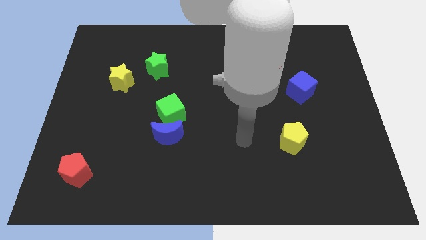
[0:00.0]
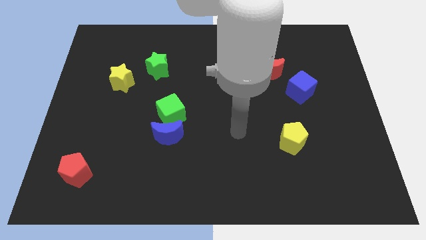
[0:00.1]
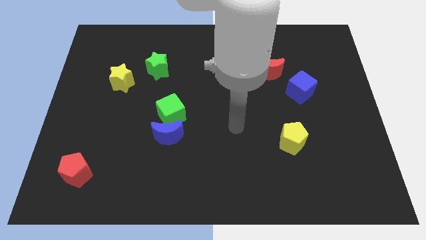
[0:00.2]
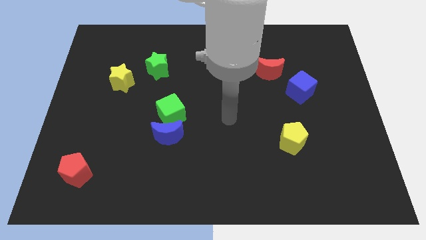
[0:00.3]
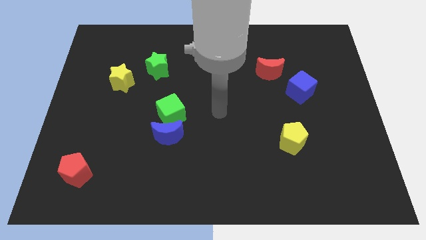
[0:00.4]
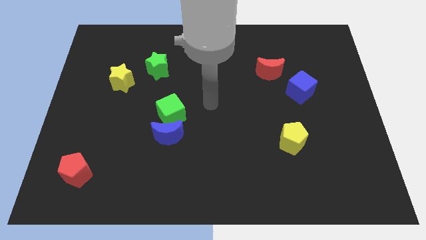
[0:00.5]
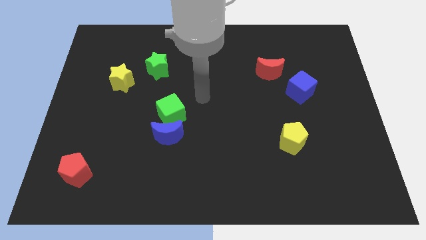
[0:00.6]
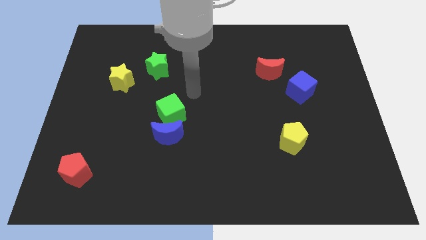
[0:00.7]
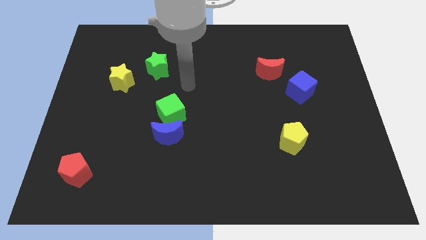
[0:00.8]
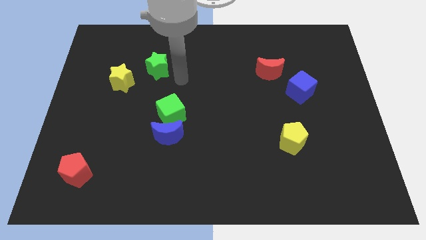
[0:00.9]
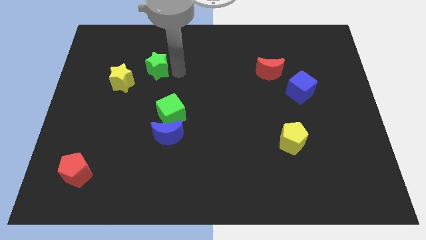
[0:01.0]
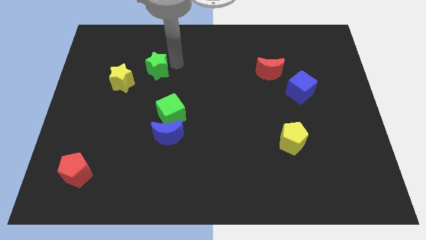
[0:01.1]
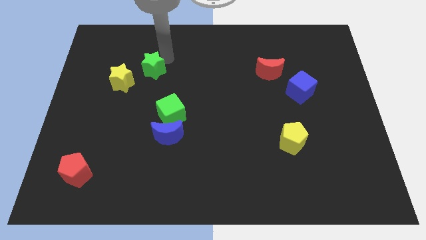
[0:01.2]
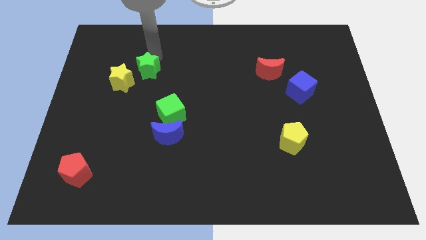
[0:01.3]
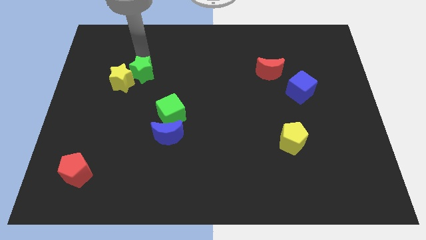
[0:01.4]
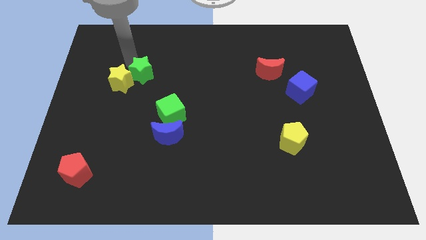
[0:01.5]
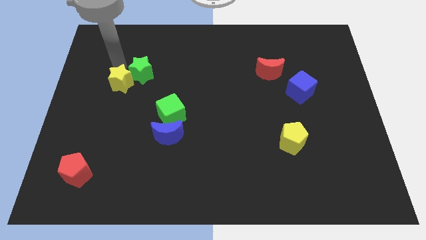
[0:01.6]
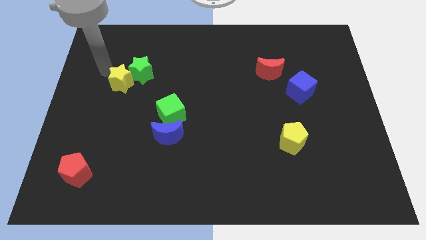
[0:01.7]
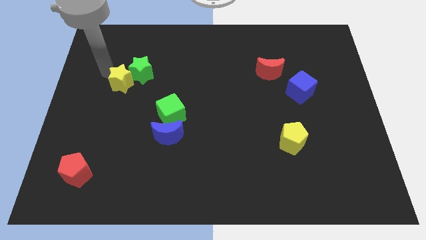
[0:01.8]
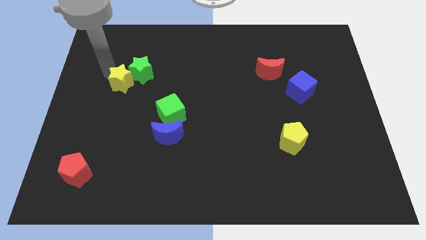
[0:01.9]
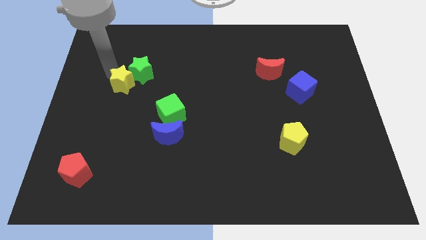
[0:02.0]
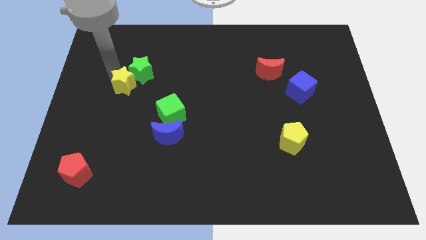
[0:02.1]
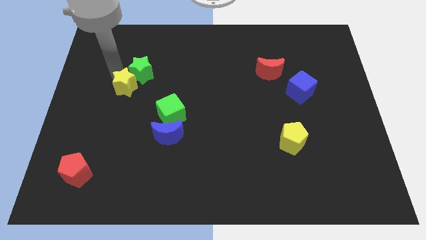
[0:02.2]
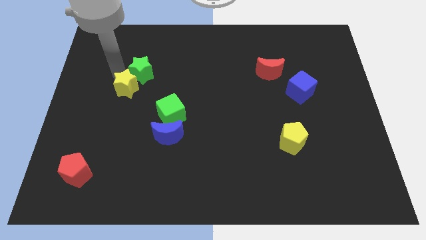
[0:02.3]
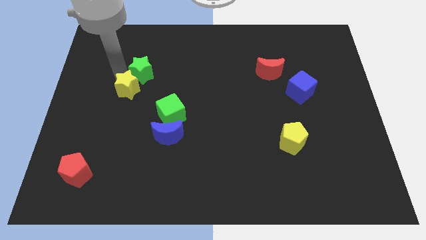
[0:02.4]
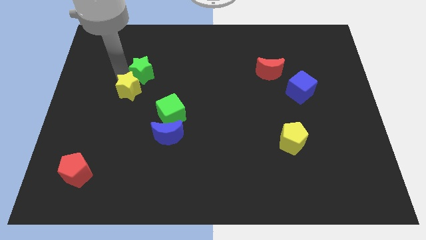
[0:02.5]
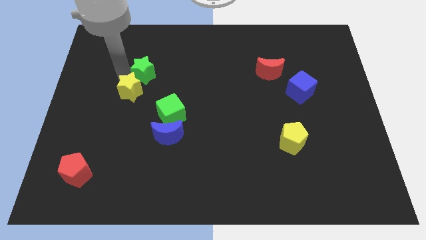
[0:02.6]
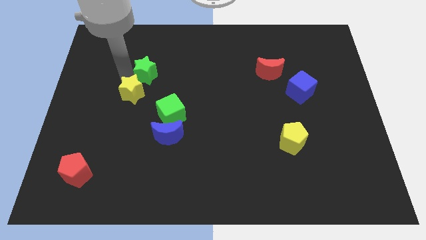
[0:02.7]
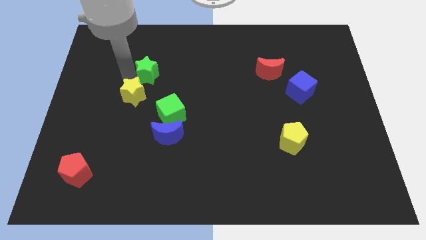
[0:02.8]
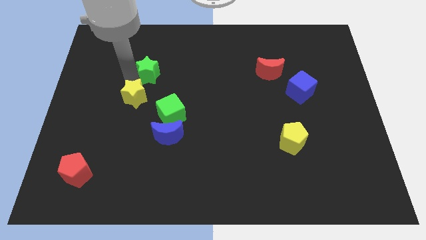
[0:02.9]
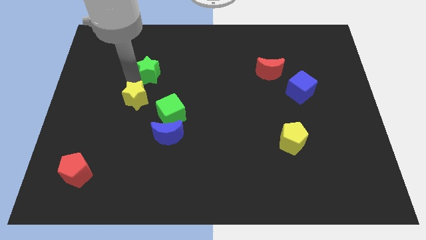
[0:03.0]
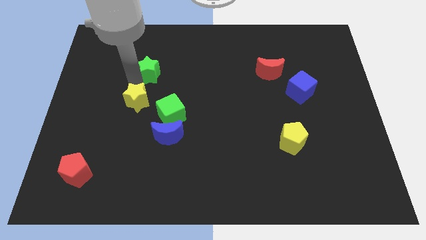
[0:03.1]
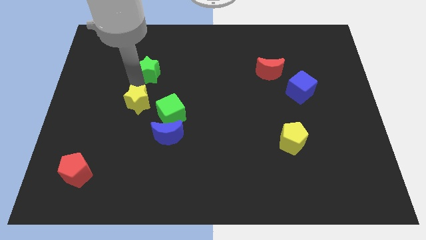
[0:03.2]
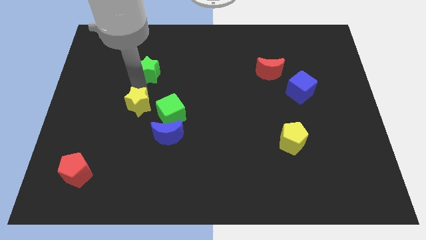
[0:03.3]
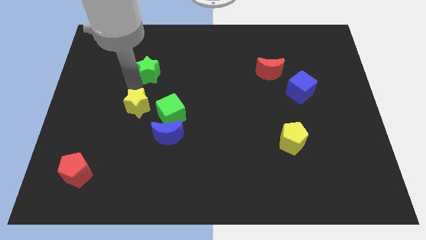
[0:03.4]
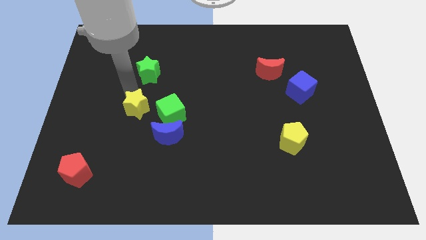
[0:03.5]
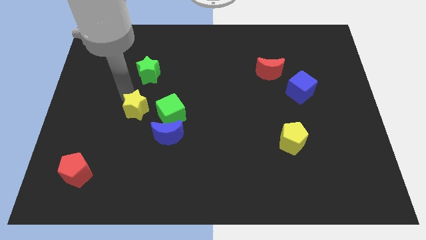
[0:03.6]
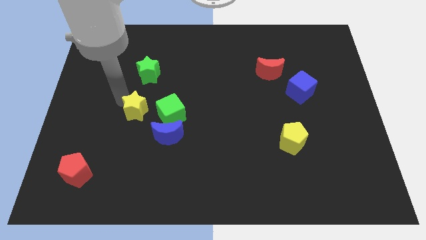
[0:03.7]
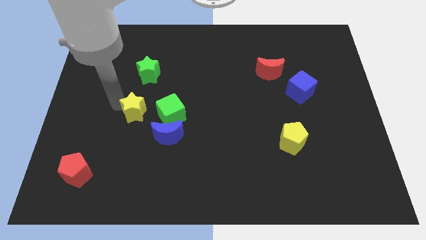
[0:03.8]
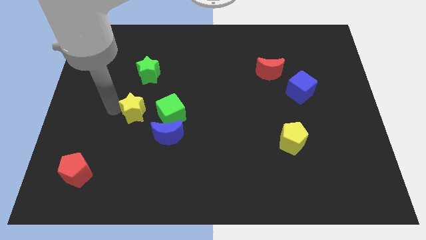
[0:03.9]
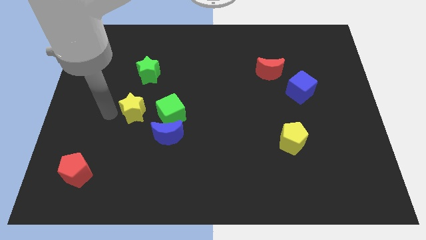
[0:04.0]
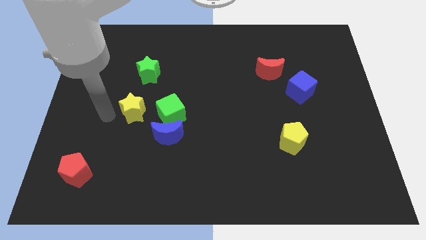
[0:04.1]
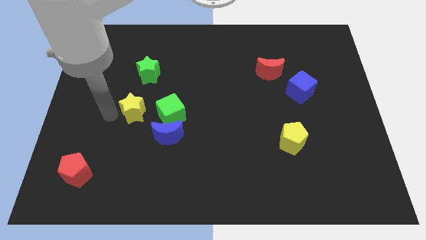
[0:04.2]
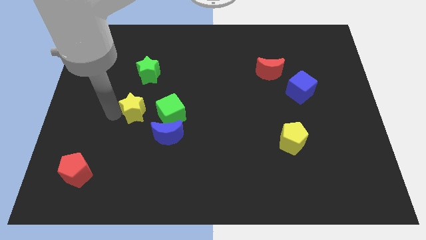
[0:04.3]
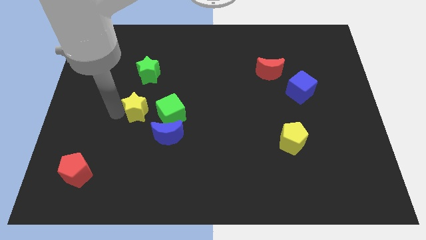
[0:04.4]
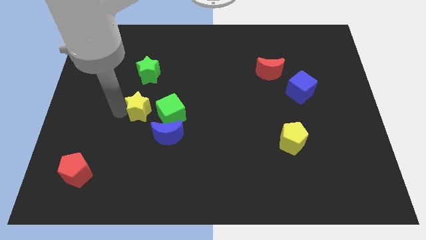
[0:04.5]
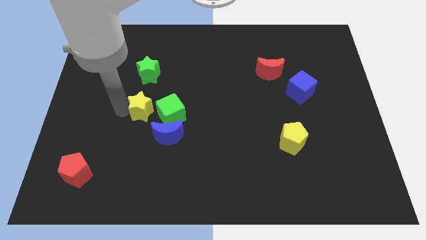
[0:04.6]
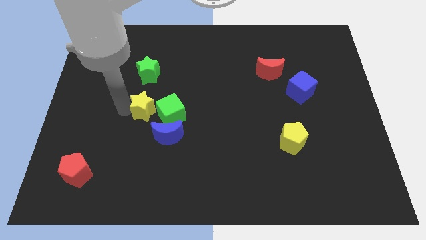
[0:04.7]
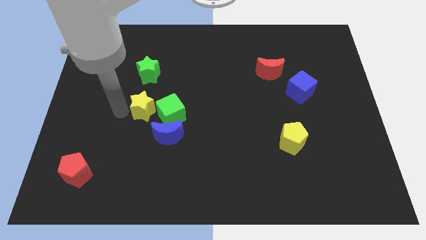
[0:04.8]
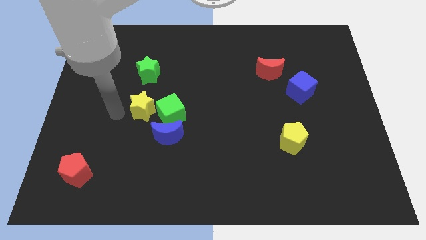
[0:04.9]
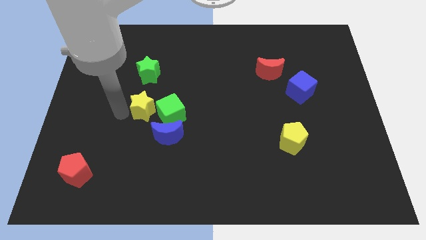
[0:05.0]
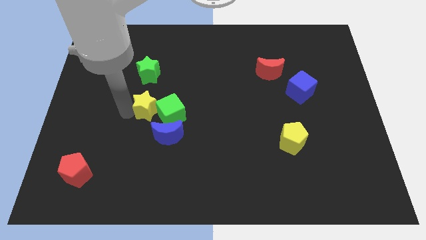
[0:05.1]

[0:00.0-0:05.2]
slide the yellow star next to the green cube

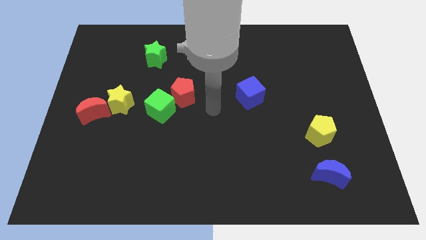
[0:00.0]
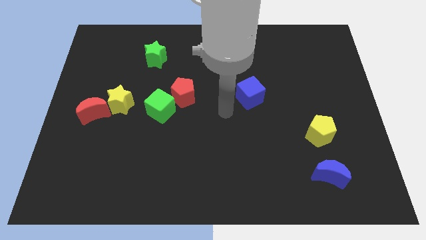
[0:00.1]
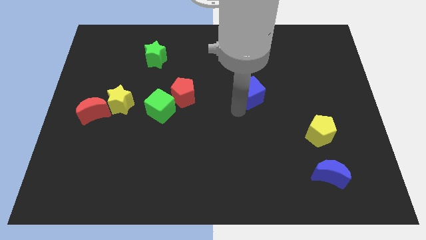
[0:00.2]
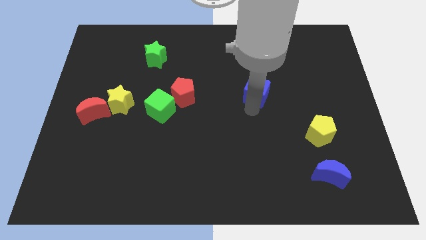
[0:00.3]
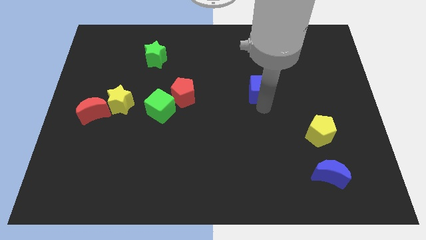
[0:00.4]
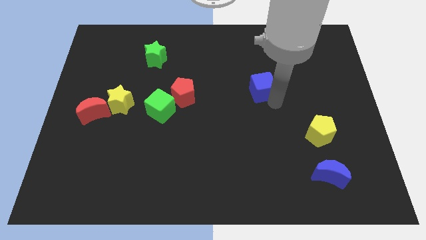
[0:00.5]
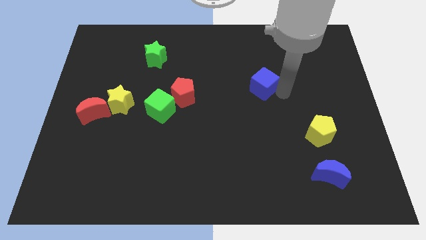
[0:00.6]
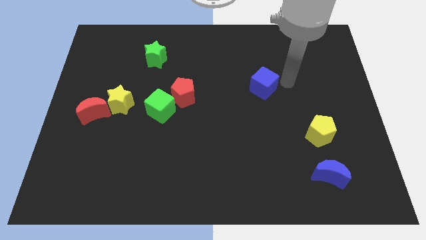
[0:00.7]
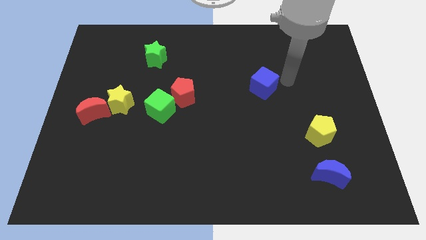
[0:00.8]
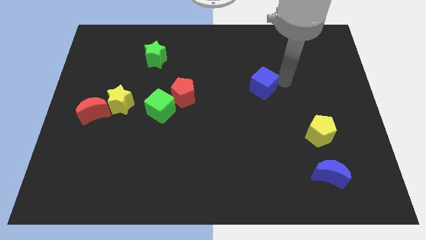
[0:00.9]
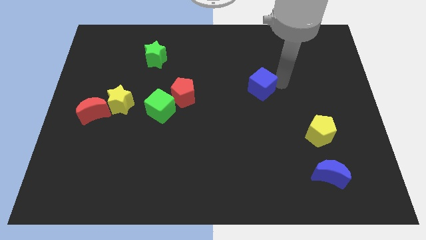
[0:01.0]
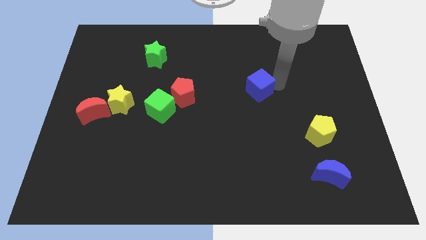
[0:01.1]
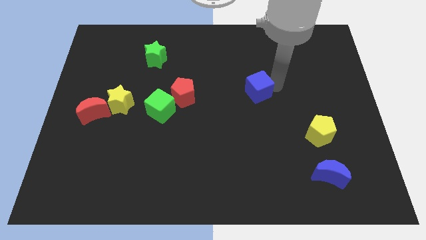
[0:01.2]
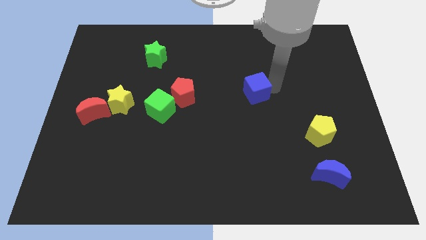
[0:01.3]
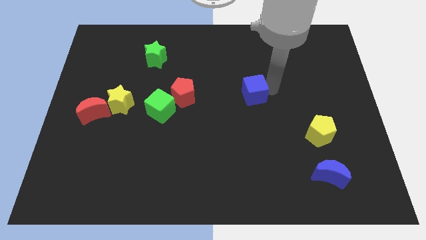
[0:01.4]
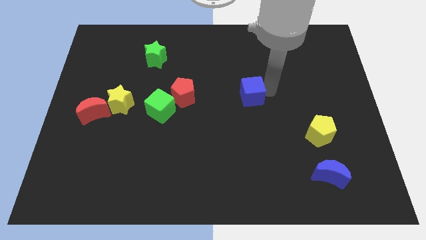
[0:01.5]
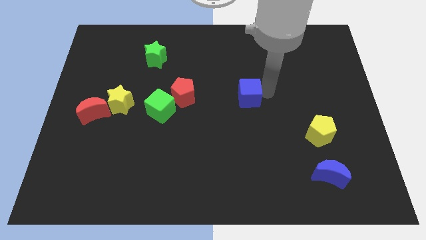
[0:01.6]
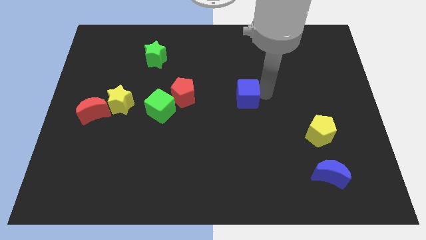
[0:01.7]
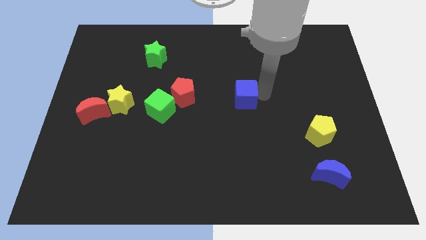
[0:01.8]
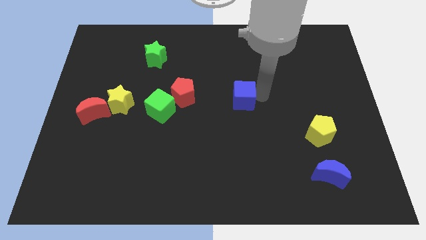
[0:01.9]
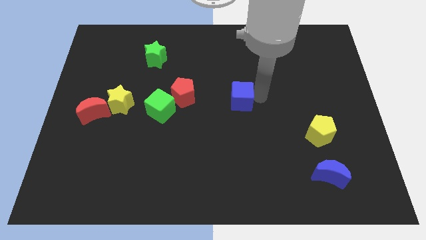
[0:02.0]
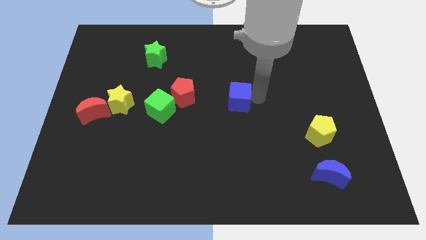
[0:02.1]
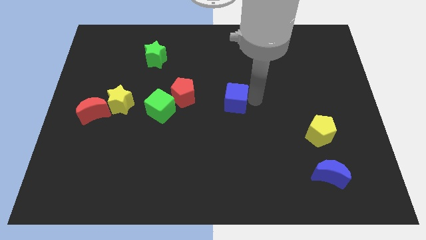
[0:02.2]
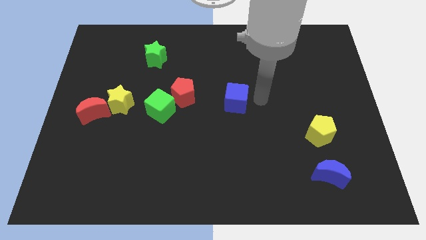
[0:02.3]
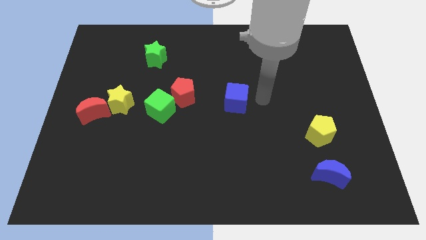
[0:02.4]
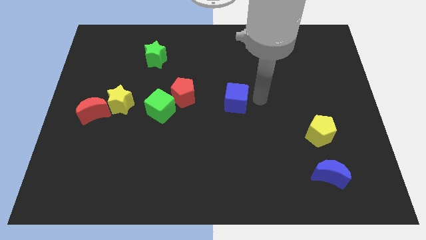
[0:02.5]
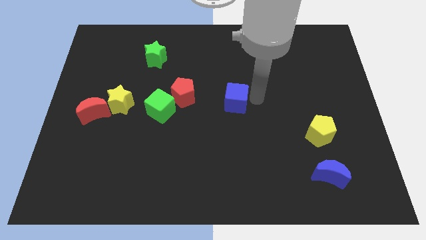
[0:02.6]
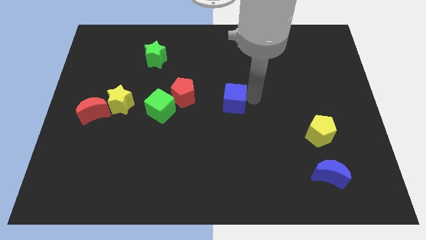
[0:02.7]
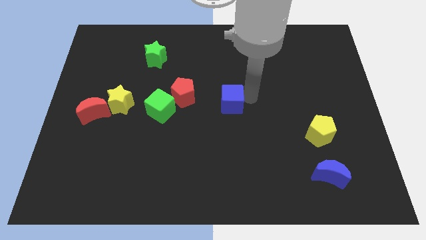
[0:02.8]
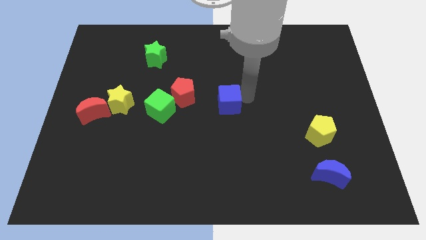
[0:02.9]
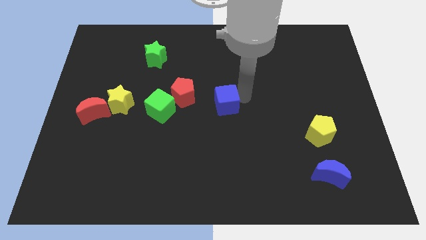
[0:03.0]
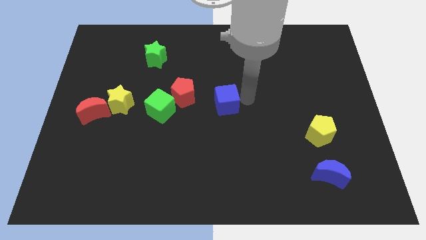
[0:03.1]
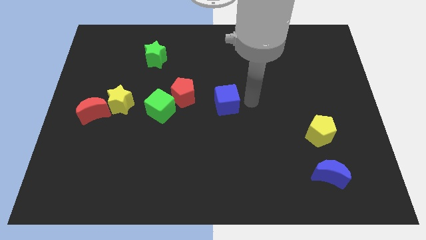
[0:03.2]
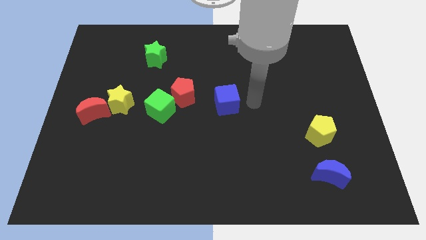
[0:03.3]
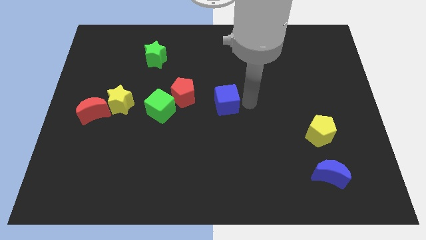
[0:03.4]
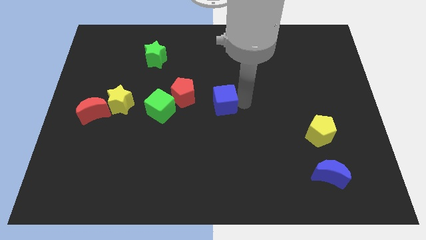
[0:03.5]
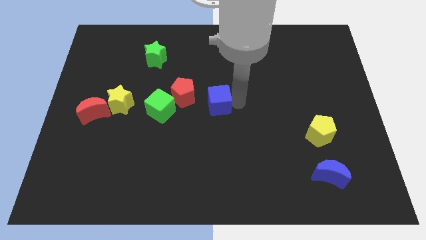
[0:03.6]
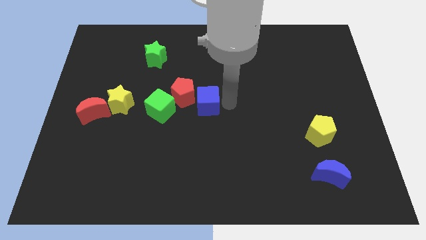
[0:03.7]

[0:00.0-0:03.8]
put the blue cube to the red pentagon
